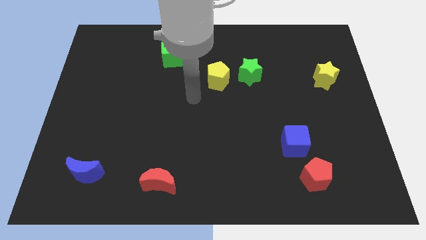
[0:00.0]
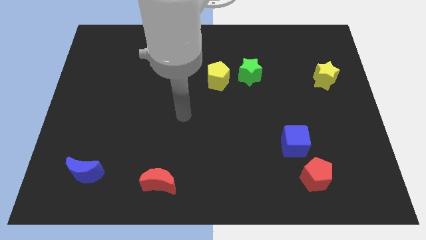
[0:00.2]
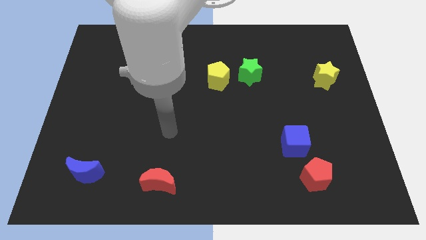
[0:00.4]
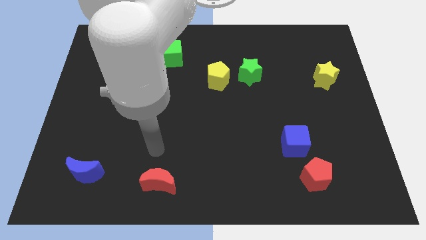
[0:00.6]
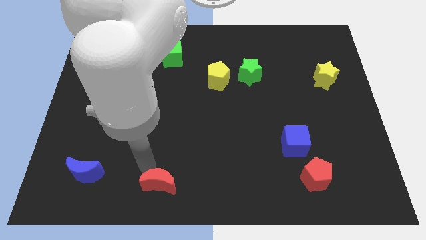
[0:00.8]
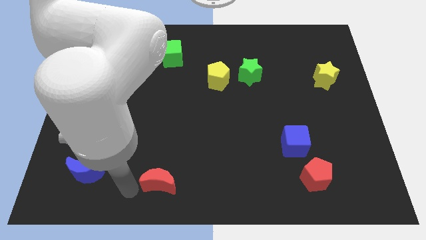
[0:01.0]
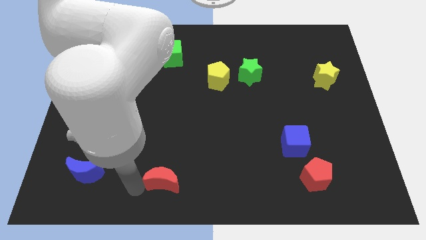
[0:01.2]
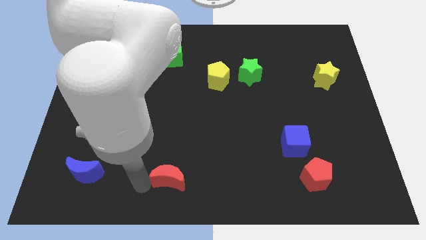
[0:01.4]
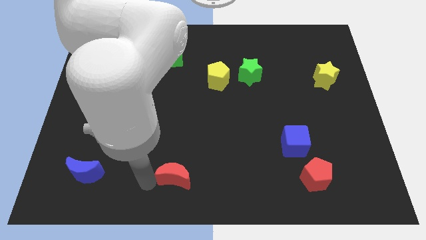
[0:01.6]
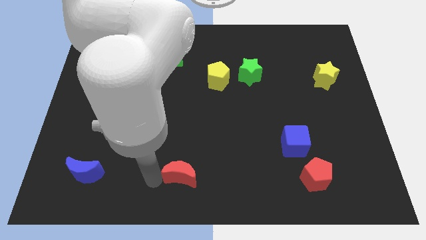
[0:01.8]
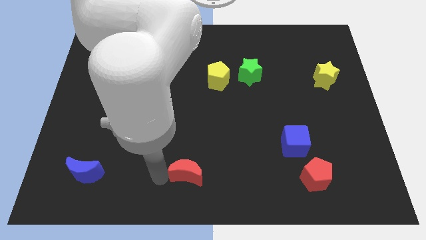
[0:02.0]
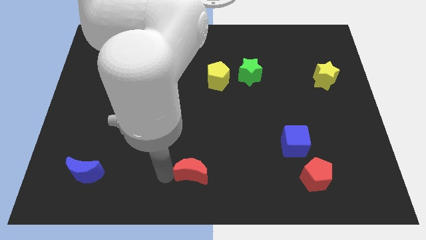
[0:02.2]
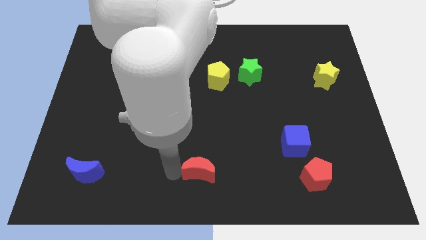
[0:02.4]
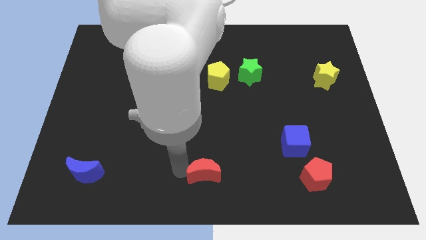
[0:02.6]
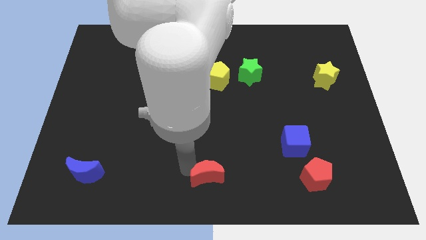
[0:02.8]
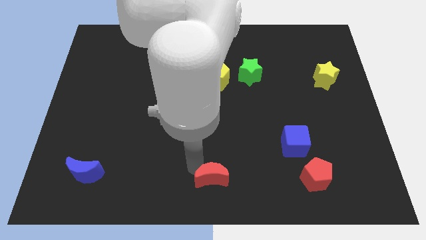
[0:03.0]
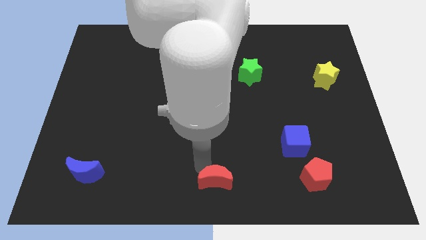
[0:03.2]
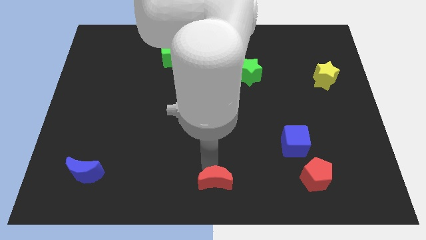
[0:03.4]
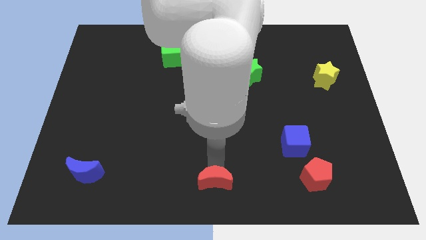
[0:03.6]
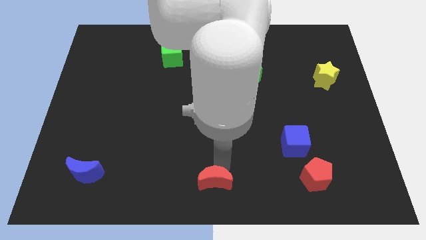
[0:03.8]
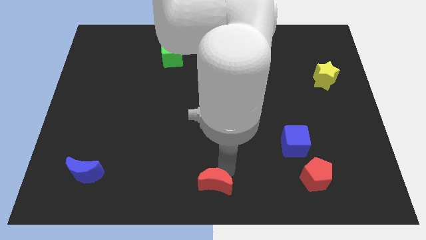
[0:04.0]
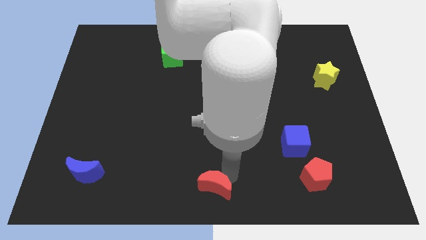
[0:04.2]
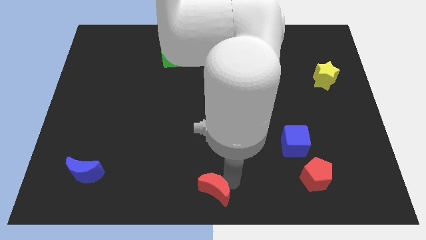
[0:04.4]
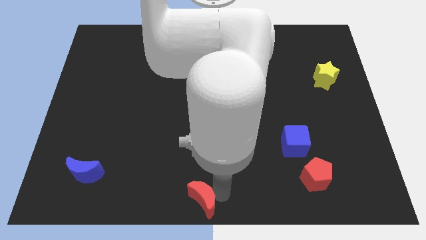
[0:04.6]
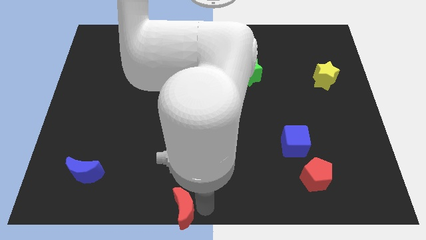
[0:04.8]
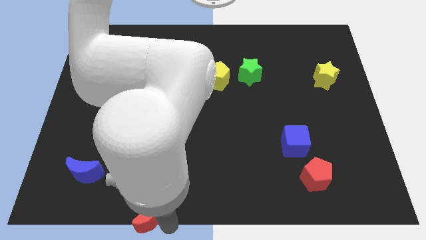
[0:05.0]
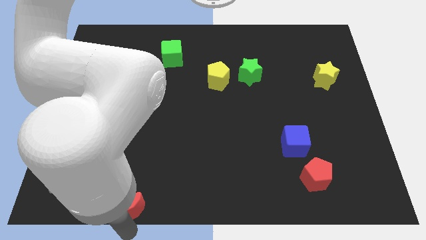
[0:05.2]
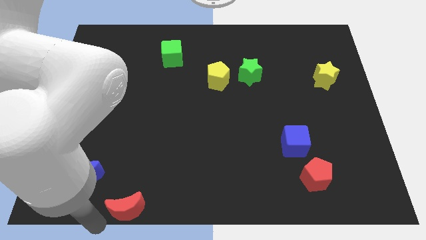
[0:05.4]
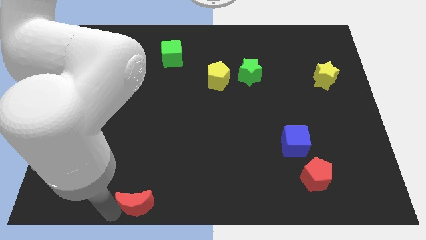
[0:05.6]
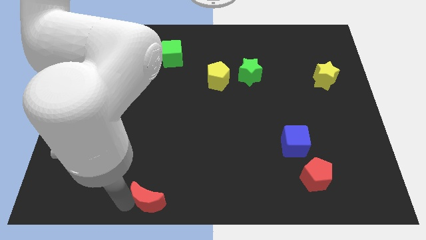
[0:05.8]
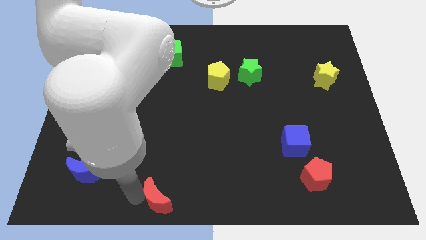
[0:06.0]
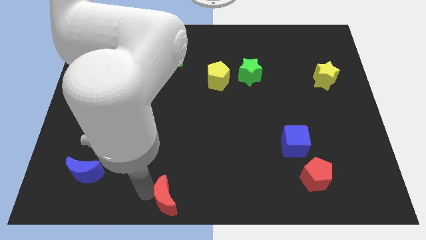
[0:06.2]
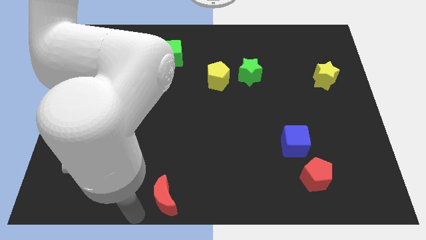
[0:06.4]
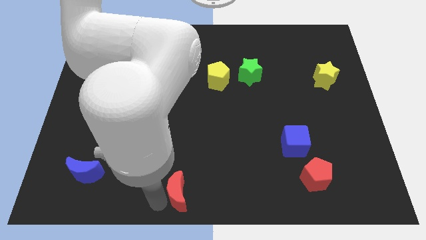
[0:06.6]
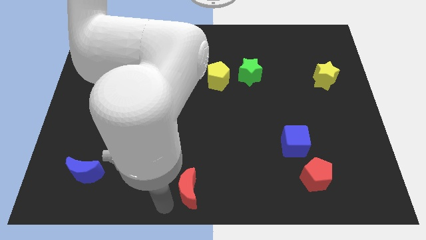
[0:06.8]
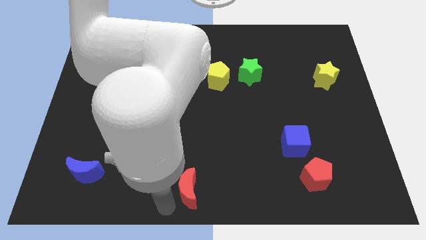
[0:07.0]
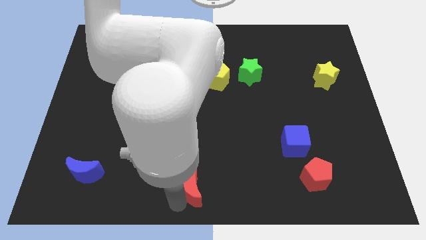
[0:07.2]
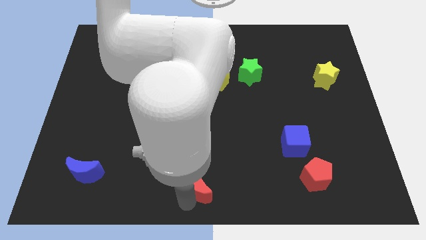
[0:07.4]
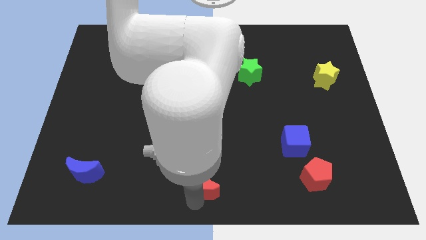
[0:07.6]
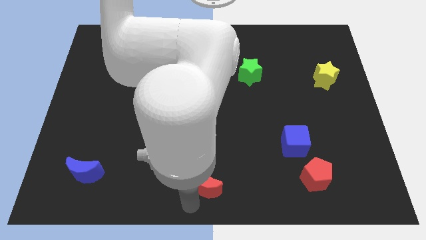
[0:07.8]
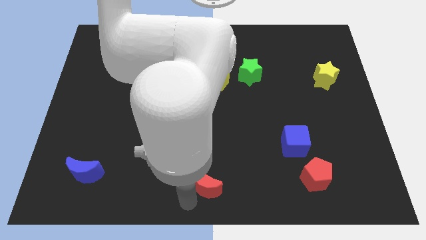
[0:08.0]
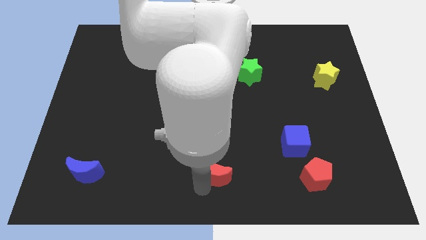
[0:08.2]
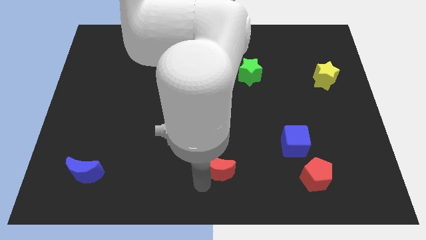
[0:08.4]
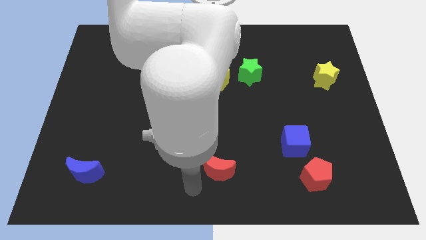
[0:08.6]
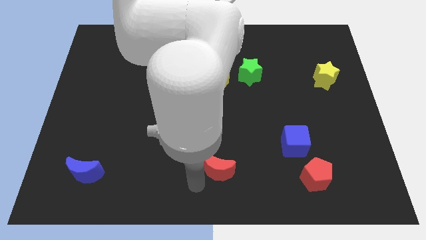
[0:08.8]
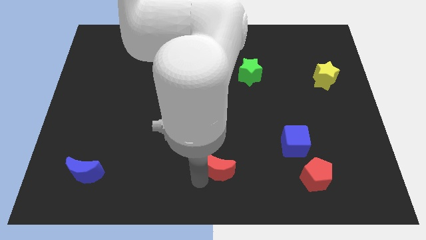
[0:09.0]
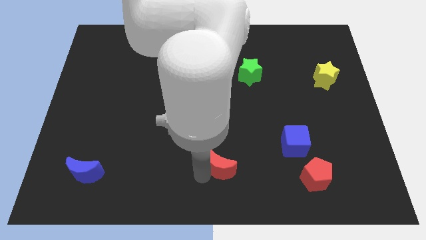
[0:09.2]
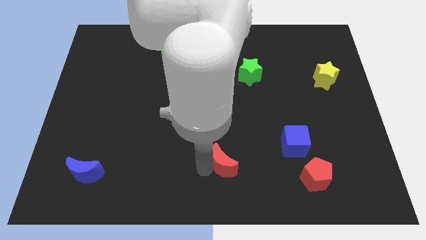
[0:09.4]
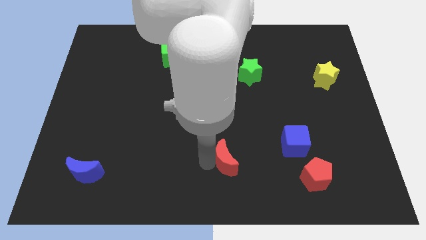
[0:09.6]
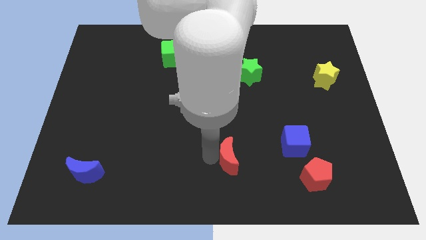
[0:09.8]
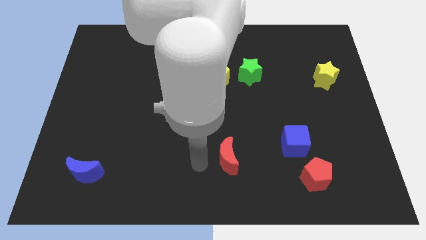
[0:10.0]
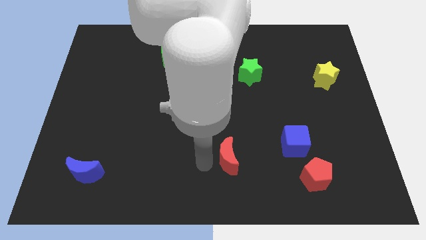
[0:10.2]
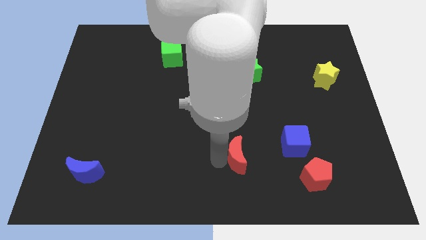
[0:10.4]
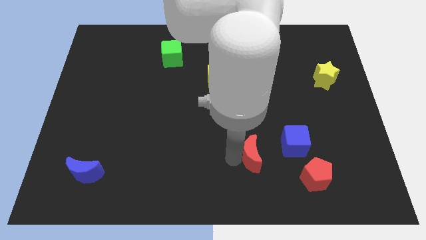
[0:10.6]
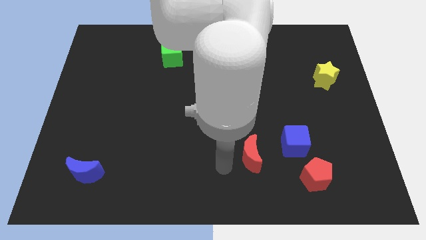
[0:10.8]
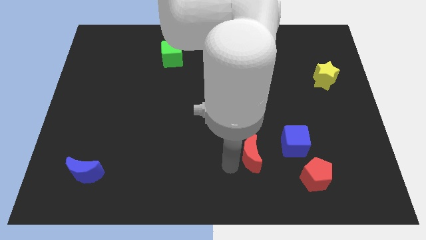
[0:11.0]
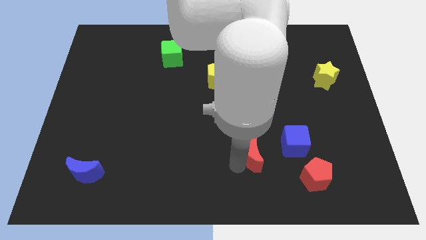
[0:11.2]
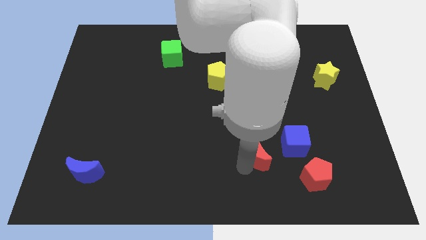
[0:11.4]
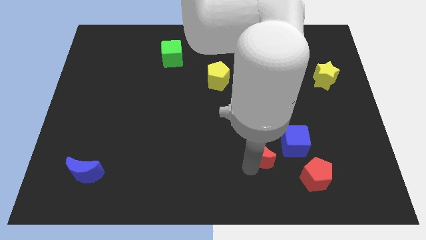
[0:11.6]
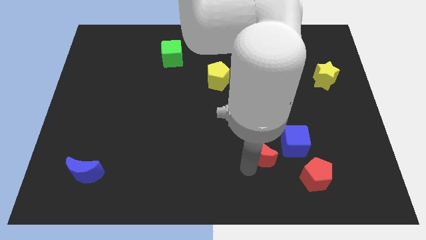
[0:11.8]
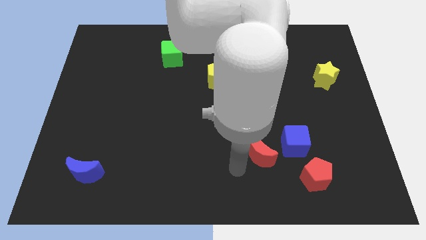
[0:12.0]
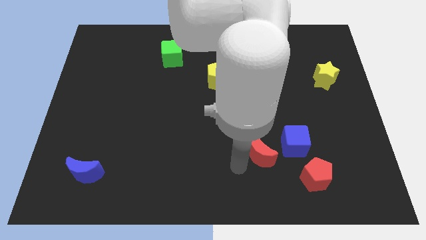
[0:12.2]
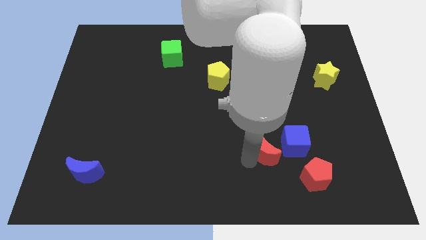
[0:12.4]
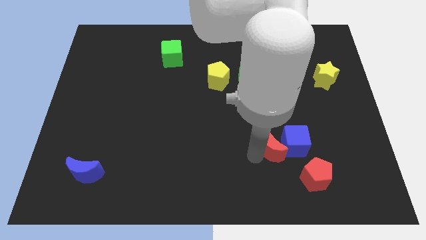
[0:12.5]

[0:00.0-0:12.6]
slide the red moon towards the blue cube
